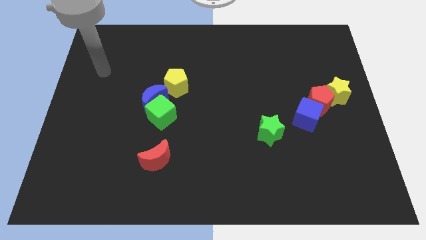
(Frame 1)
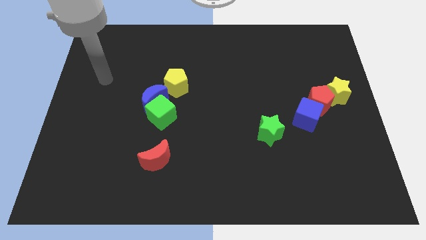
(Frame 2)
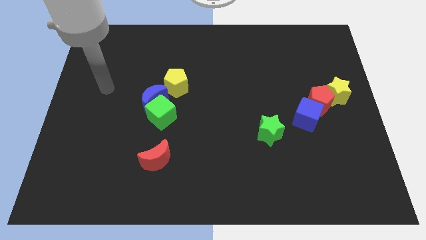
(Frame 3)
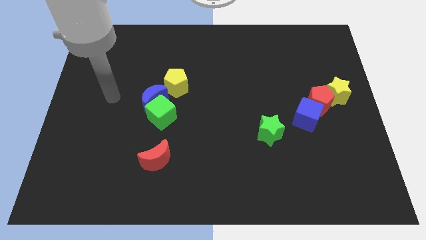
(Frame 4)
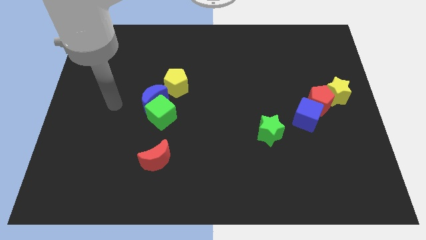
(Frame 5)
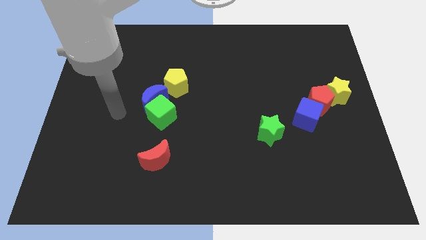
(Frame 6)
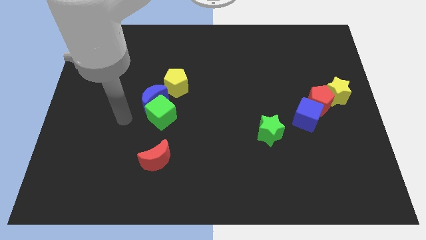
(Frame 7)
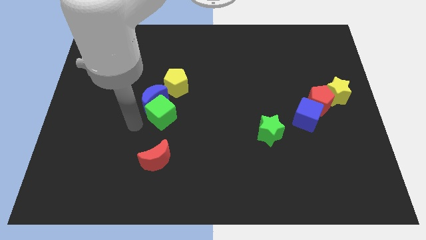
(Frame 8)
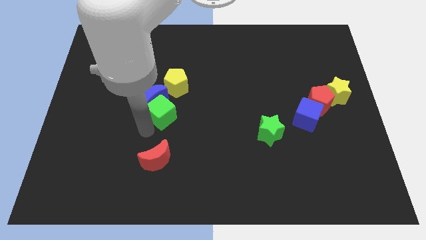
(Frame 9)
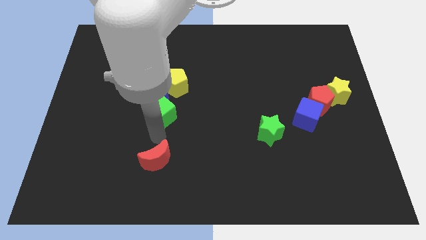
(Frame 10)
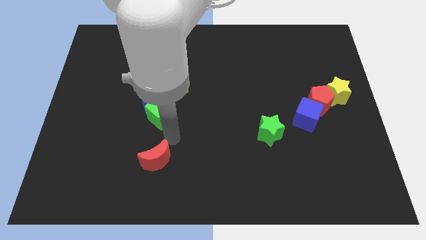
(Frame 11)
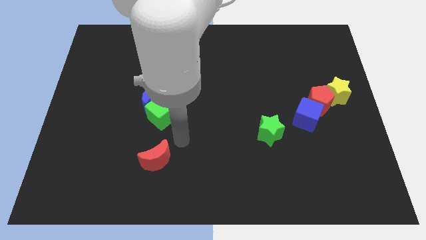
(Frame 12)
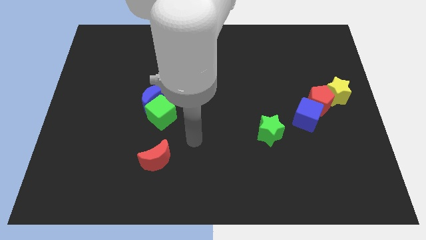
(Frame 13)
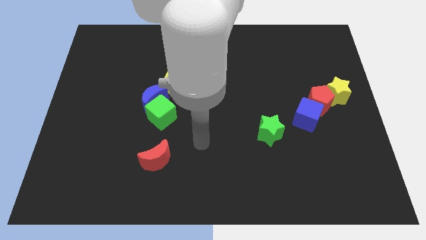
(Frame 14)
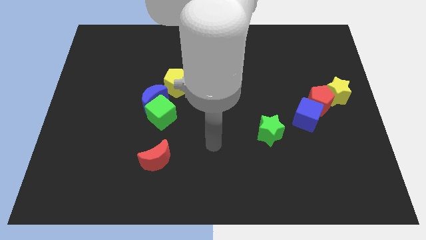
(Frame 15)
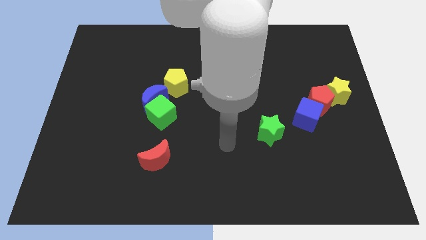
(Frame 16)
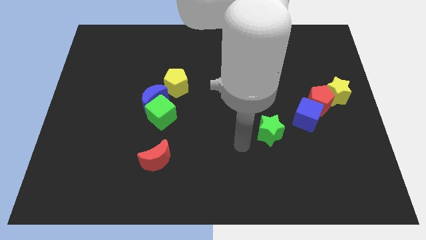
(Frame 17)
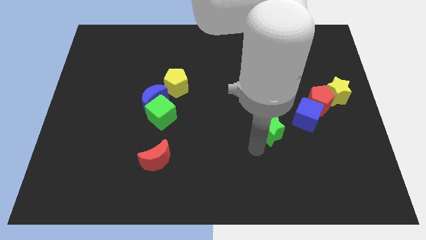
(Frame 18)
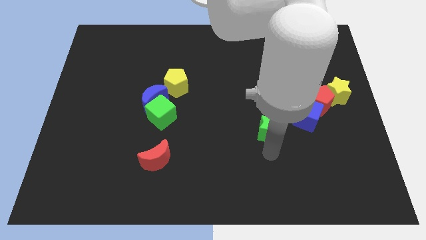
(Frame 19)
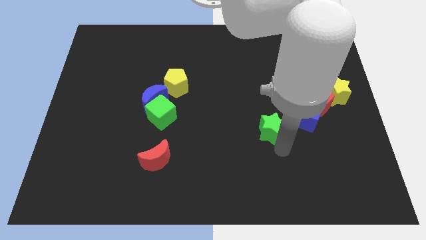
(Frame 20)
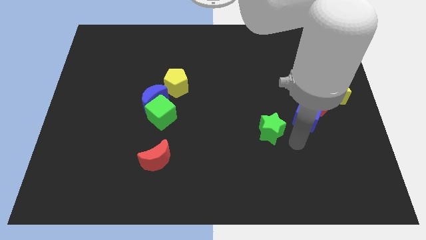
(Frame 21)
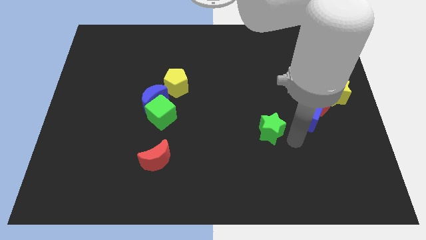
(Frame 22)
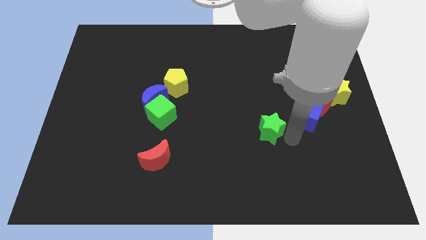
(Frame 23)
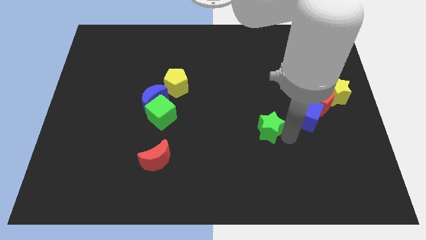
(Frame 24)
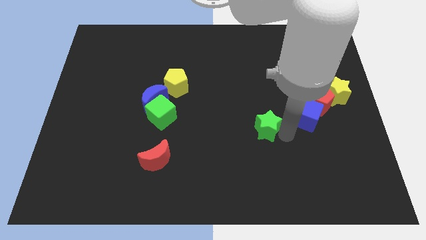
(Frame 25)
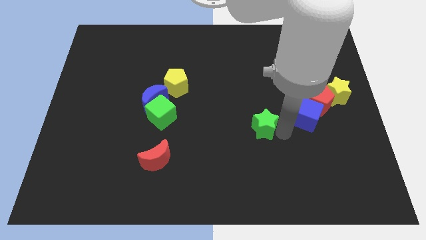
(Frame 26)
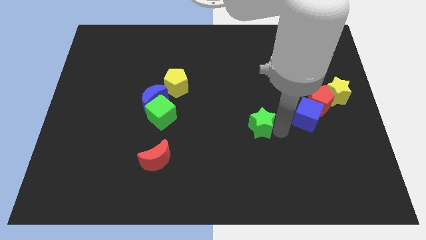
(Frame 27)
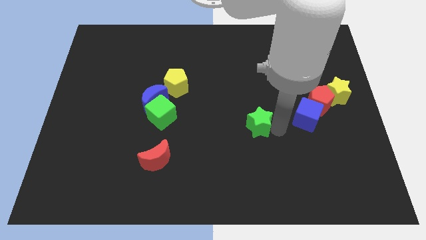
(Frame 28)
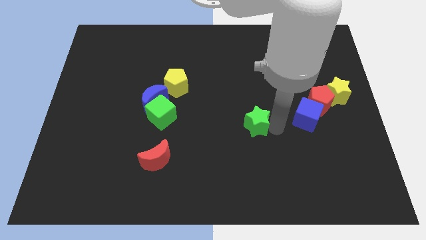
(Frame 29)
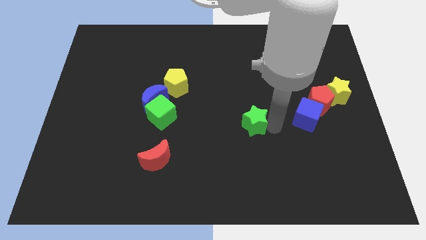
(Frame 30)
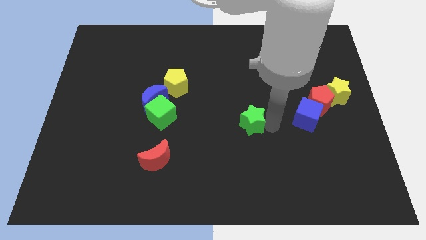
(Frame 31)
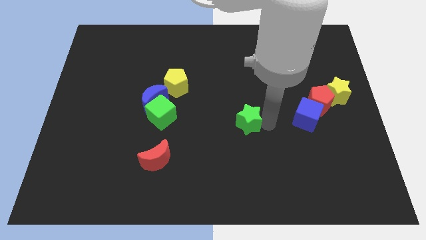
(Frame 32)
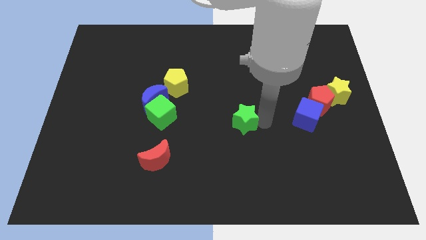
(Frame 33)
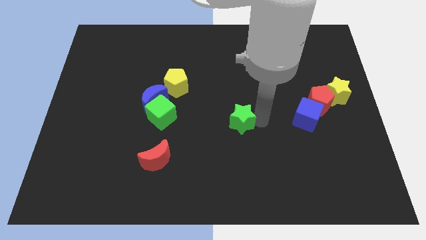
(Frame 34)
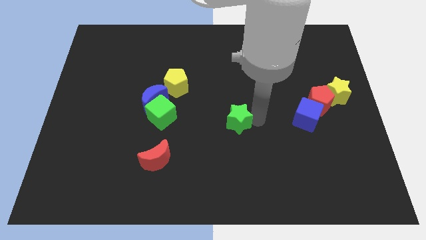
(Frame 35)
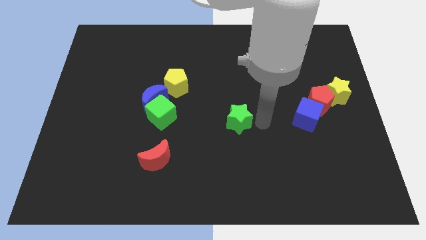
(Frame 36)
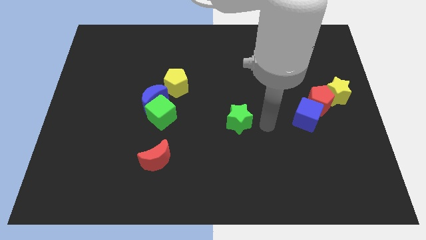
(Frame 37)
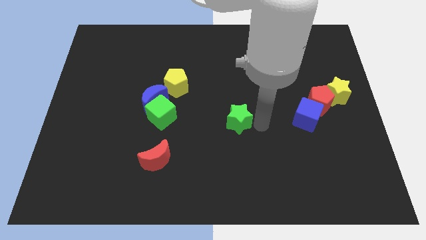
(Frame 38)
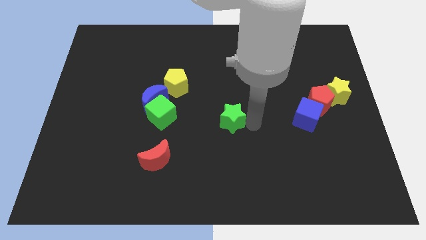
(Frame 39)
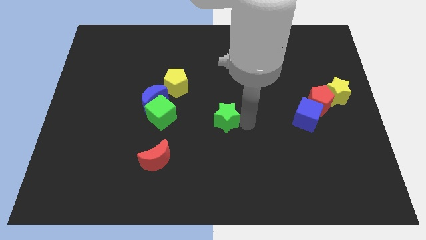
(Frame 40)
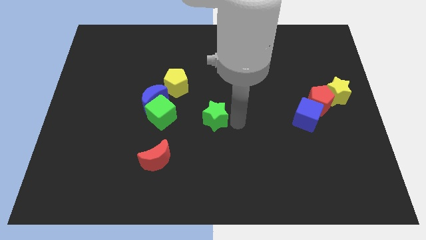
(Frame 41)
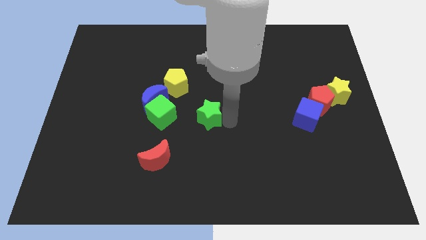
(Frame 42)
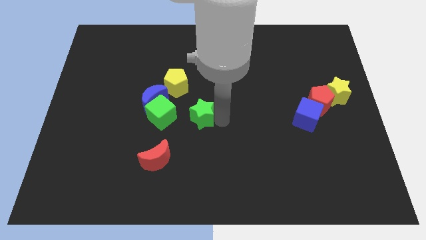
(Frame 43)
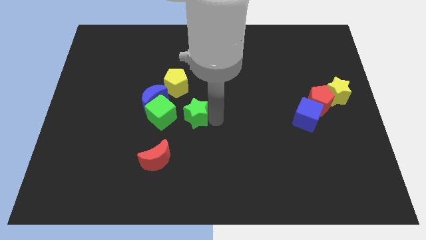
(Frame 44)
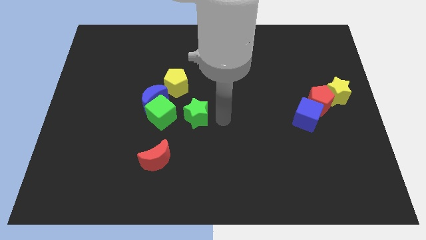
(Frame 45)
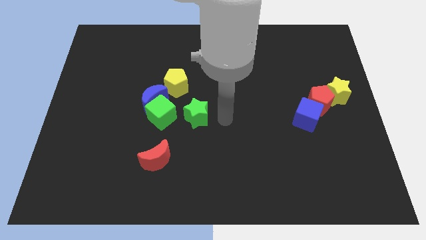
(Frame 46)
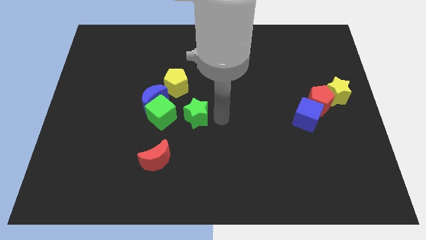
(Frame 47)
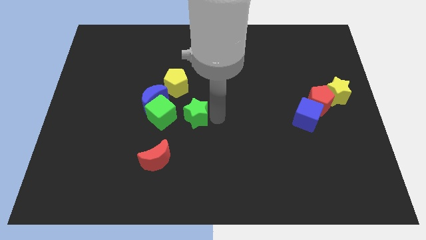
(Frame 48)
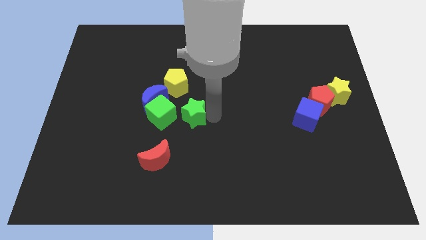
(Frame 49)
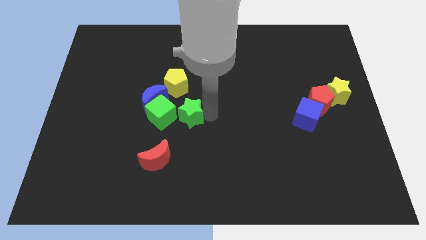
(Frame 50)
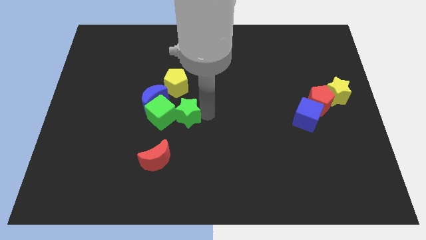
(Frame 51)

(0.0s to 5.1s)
move the green star close to the green cube

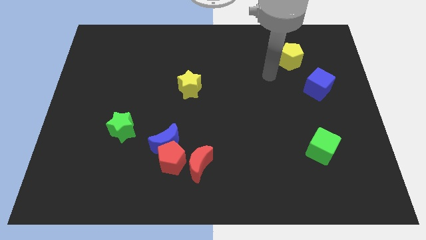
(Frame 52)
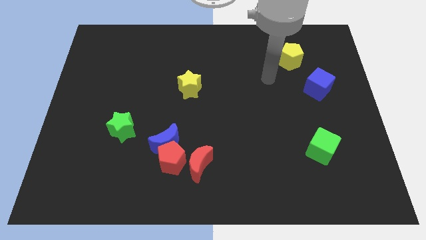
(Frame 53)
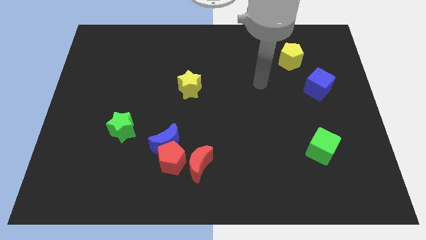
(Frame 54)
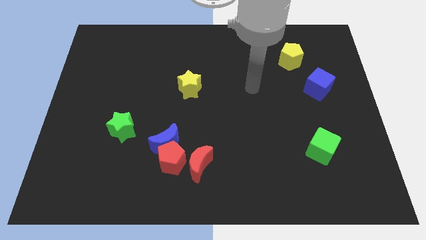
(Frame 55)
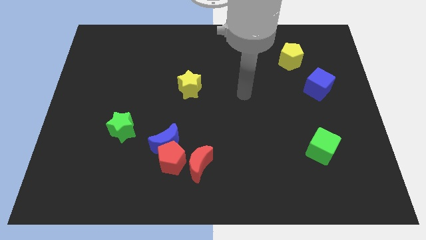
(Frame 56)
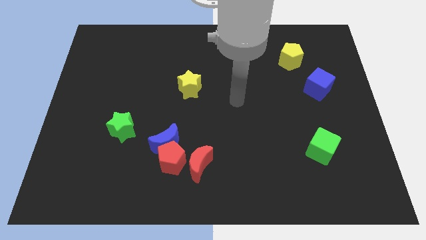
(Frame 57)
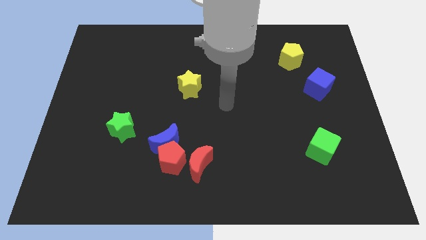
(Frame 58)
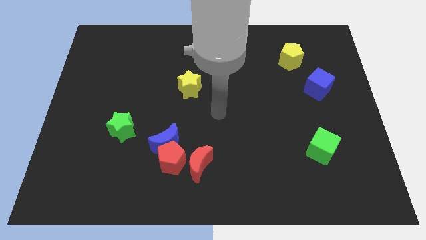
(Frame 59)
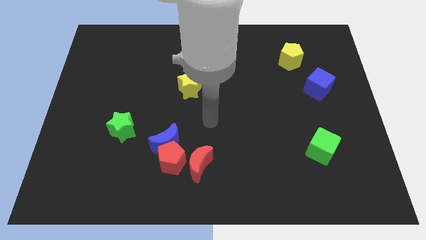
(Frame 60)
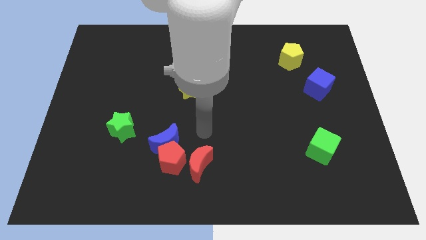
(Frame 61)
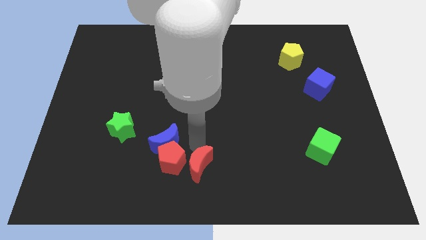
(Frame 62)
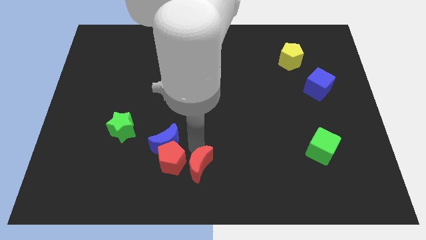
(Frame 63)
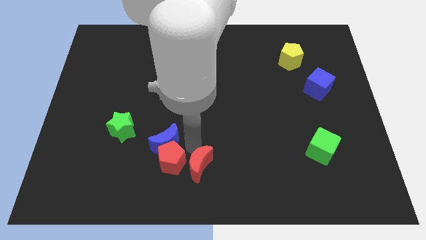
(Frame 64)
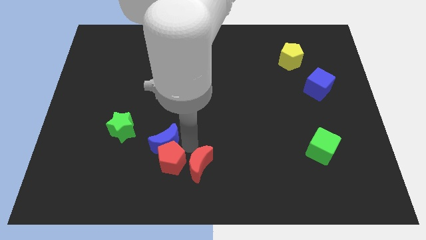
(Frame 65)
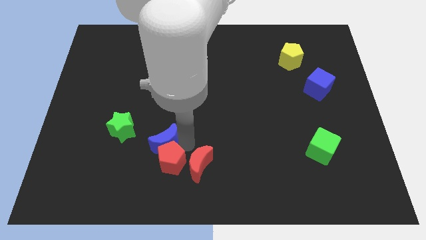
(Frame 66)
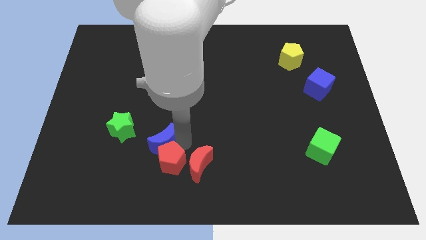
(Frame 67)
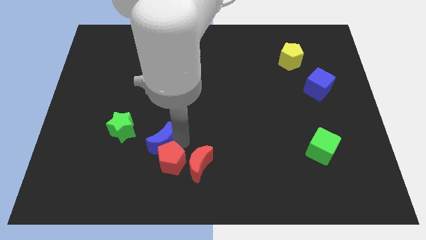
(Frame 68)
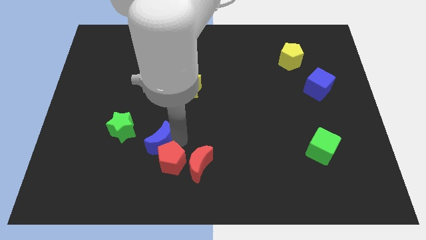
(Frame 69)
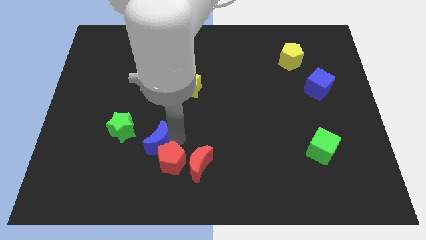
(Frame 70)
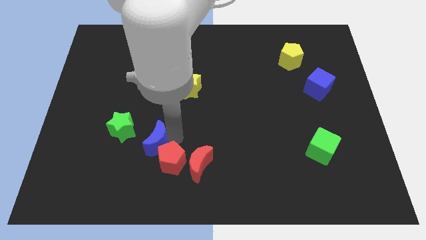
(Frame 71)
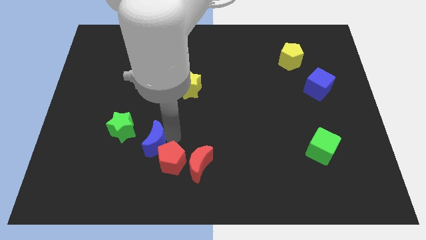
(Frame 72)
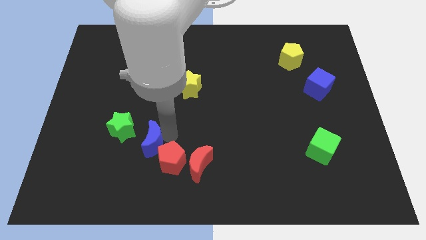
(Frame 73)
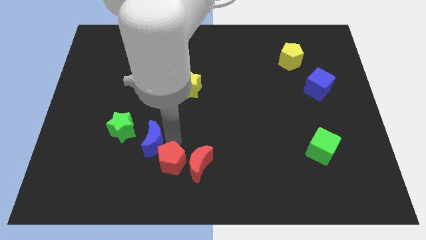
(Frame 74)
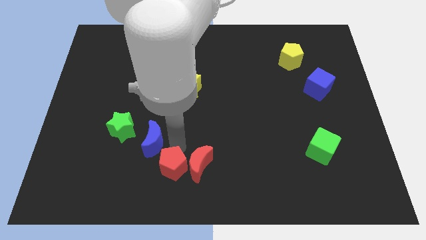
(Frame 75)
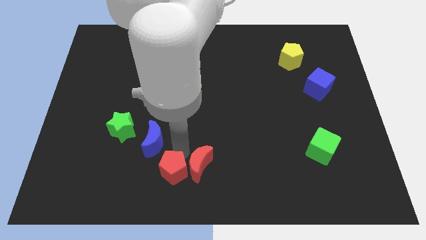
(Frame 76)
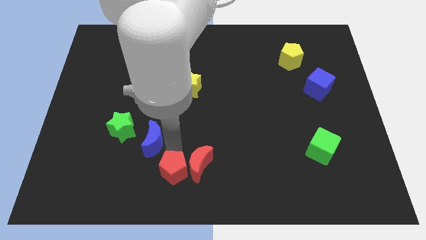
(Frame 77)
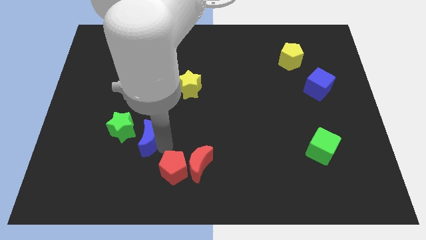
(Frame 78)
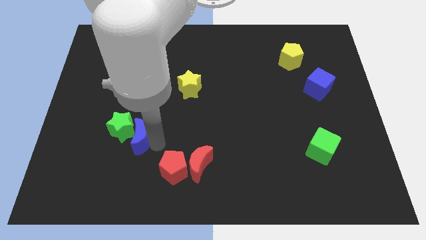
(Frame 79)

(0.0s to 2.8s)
put the blue moon next to the green star
